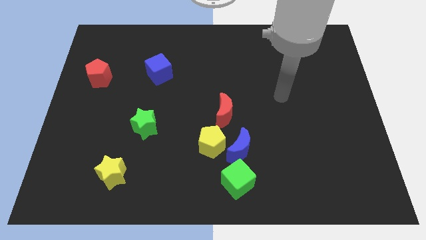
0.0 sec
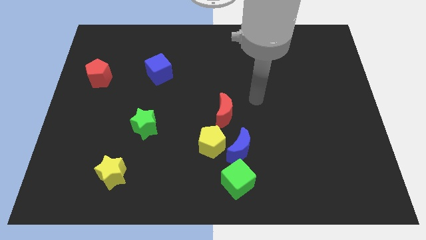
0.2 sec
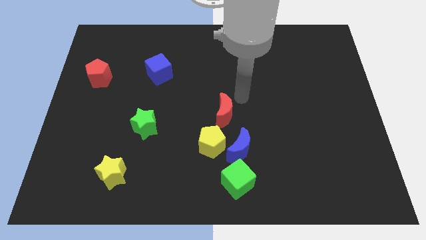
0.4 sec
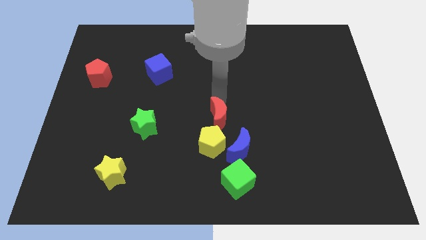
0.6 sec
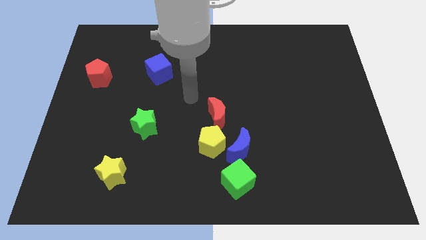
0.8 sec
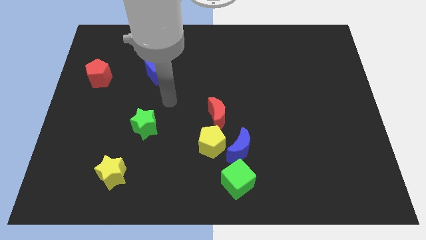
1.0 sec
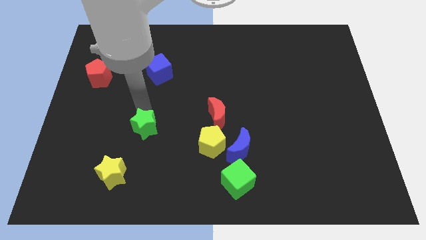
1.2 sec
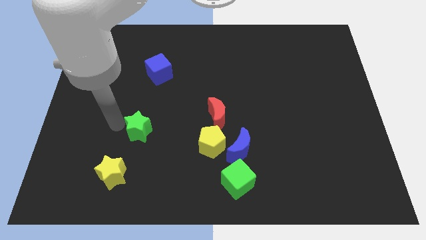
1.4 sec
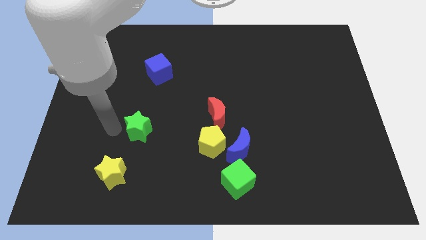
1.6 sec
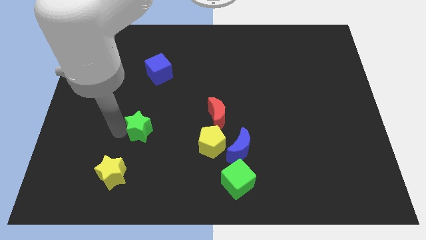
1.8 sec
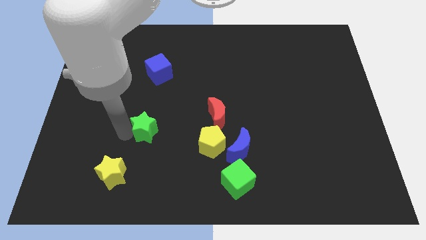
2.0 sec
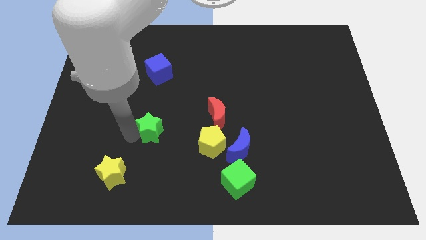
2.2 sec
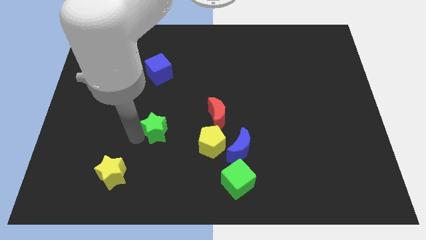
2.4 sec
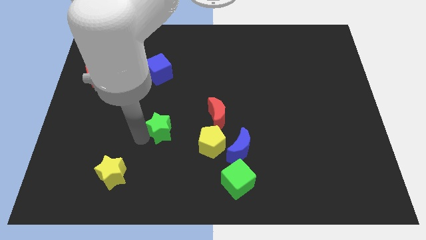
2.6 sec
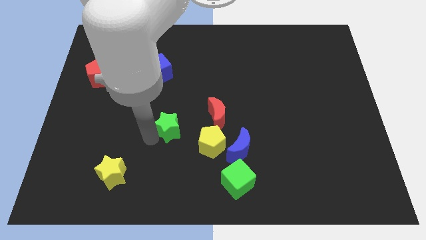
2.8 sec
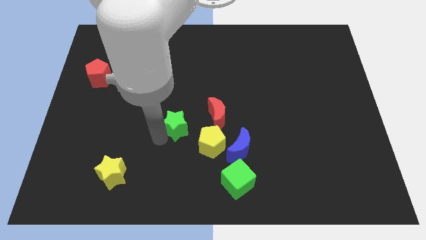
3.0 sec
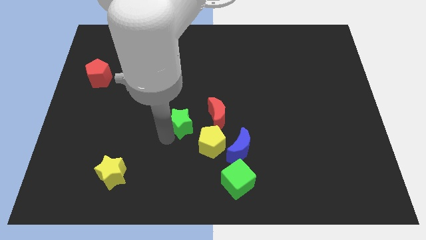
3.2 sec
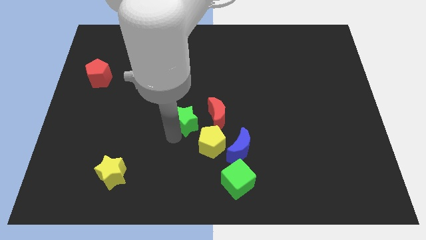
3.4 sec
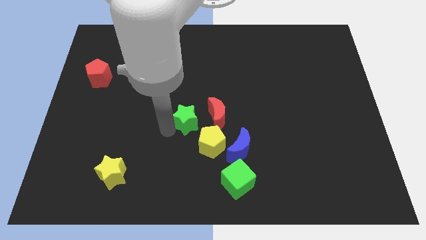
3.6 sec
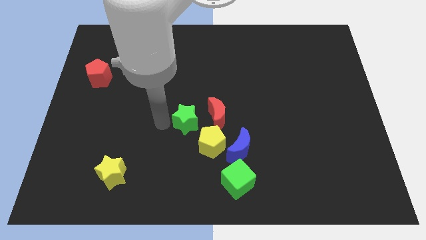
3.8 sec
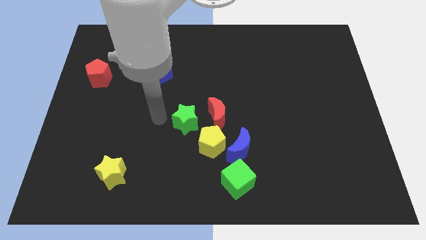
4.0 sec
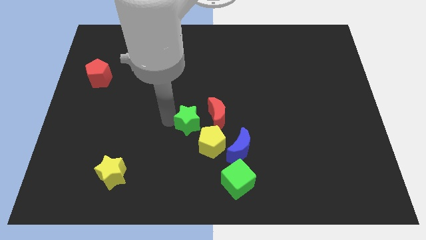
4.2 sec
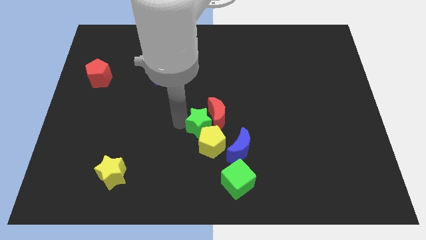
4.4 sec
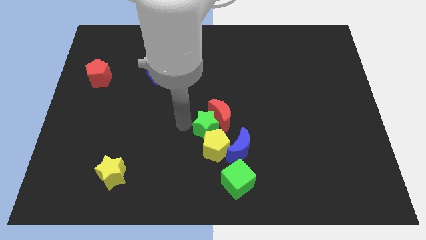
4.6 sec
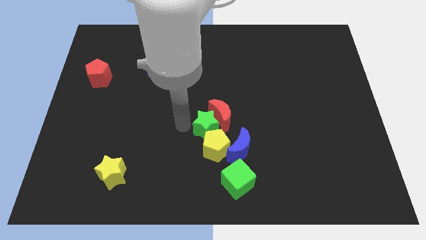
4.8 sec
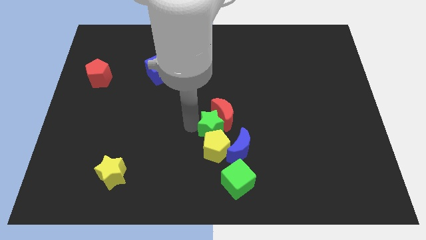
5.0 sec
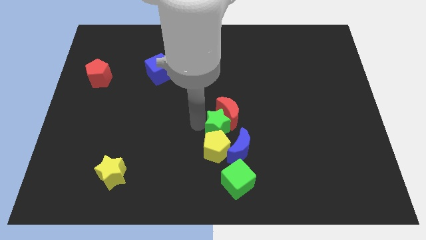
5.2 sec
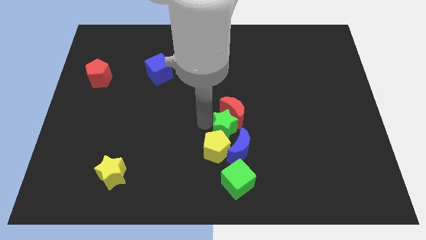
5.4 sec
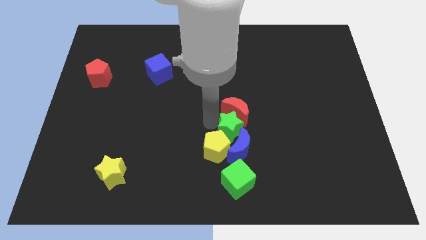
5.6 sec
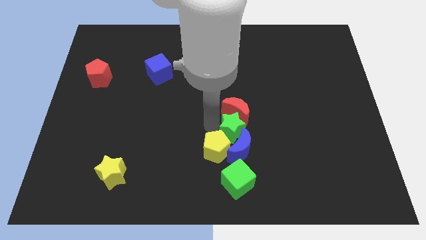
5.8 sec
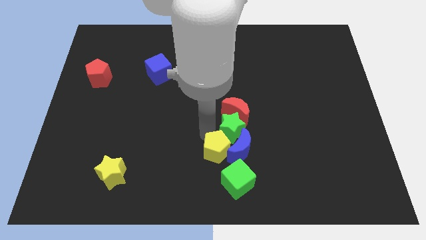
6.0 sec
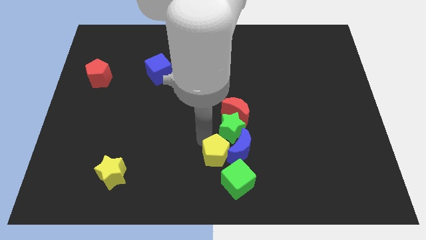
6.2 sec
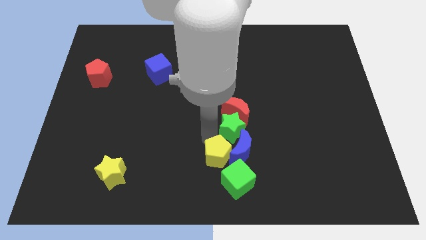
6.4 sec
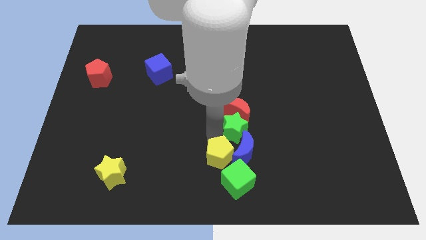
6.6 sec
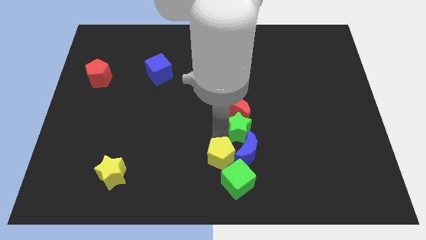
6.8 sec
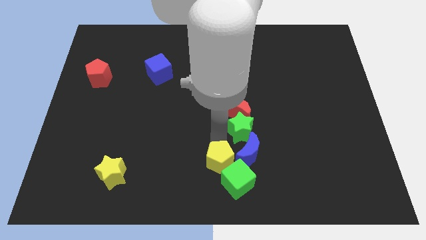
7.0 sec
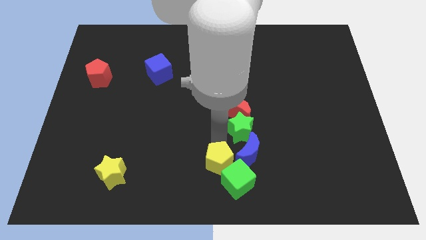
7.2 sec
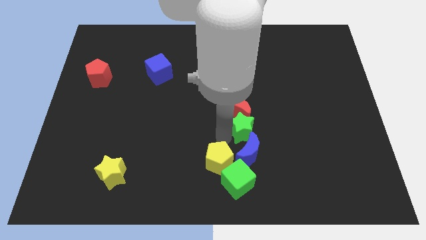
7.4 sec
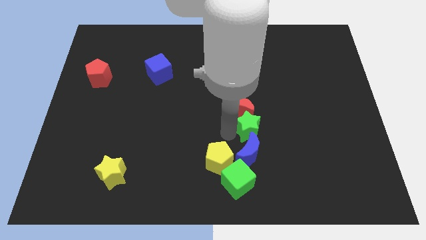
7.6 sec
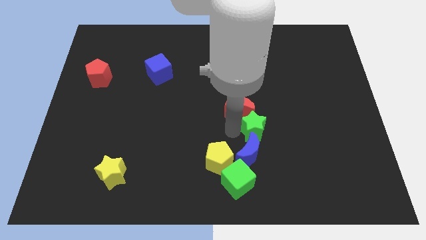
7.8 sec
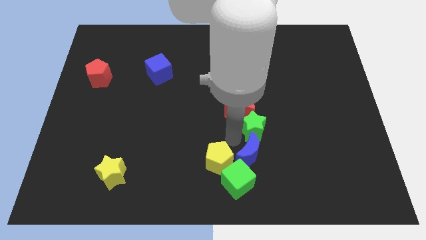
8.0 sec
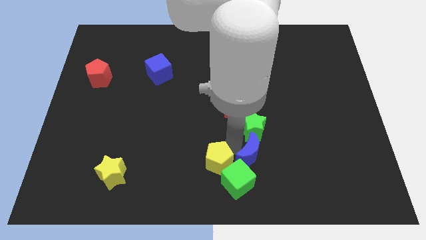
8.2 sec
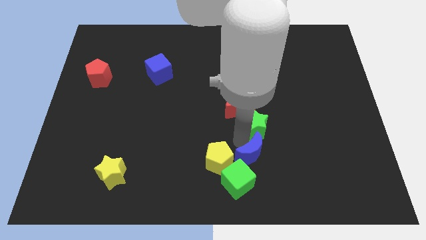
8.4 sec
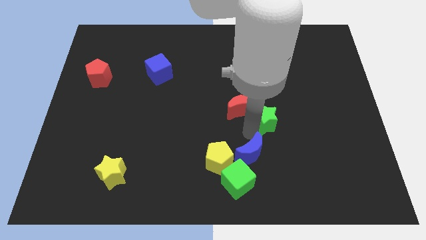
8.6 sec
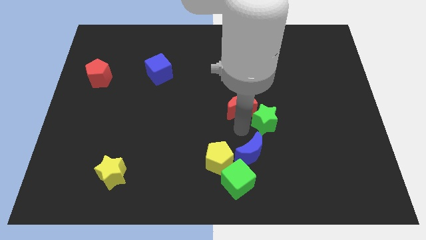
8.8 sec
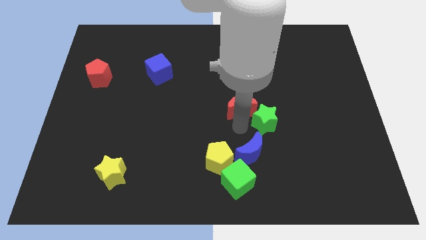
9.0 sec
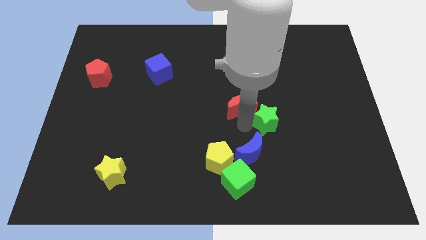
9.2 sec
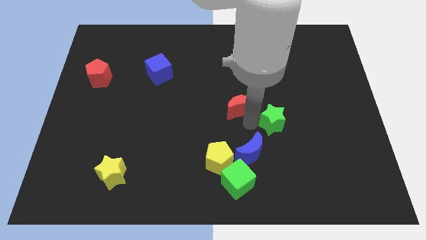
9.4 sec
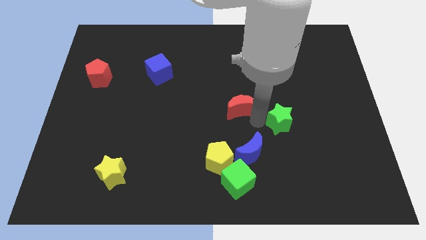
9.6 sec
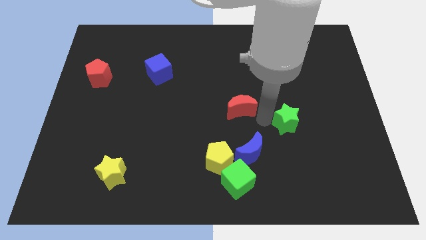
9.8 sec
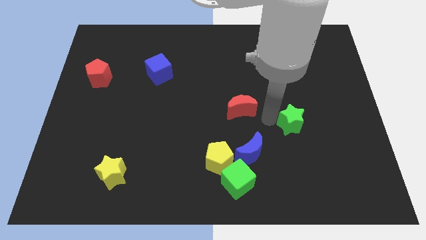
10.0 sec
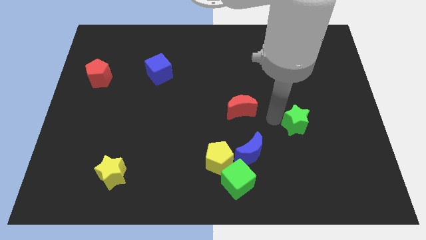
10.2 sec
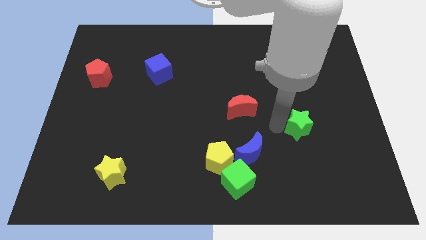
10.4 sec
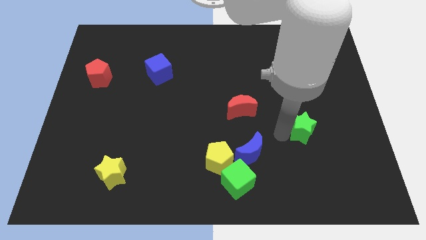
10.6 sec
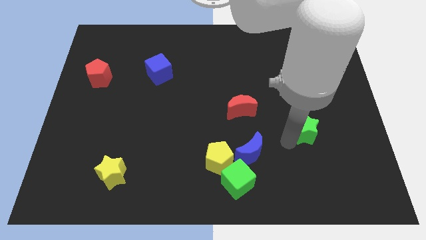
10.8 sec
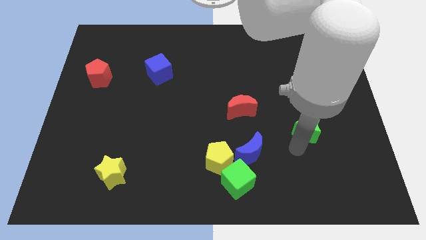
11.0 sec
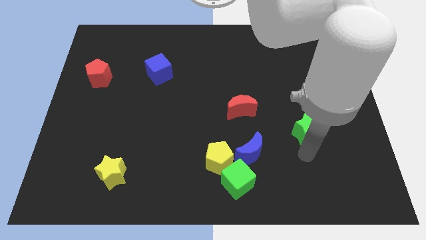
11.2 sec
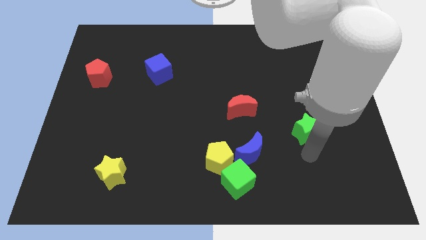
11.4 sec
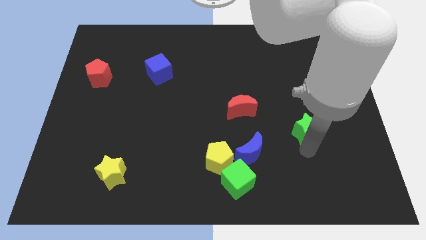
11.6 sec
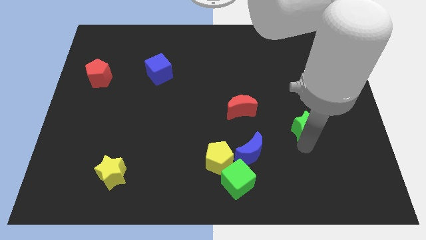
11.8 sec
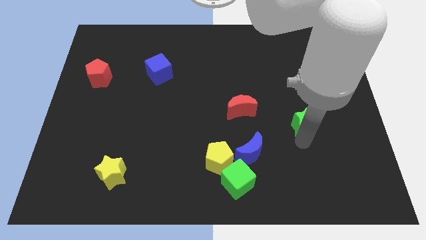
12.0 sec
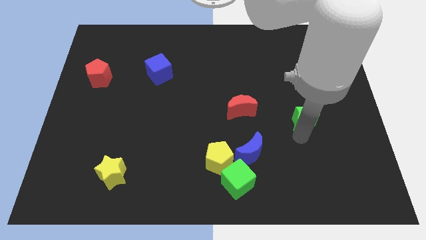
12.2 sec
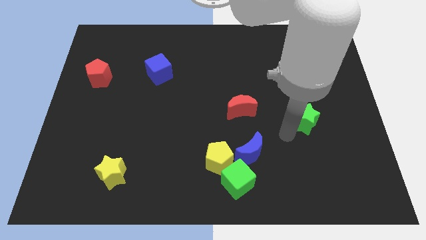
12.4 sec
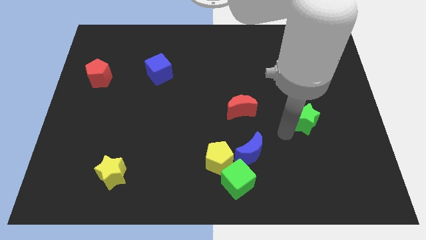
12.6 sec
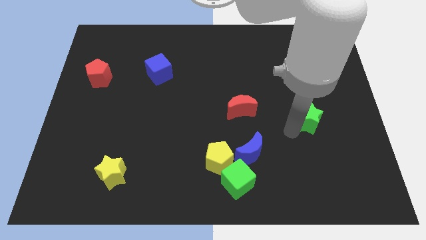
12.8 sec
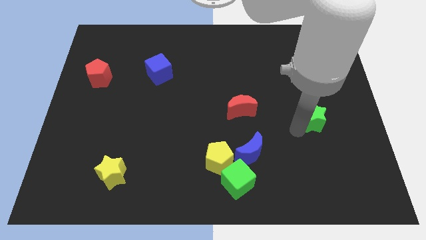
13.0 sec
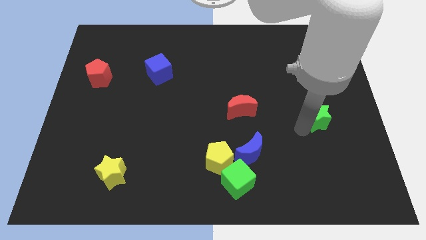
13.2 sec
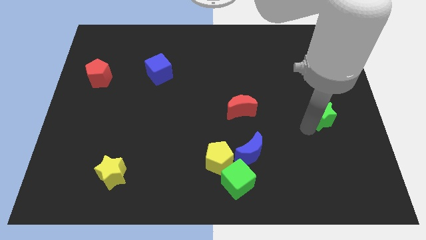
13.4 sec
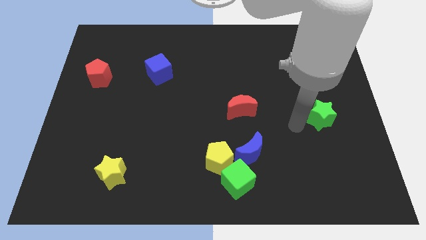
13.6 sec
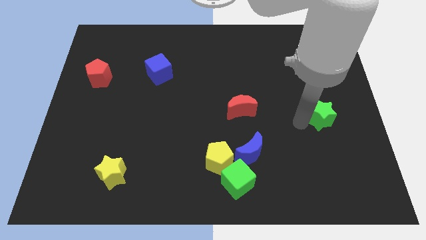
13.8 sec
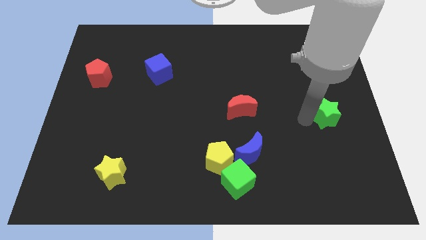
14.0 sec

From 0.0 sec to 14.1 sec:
put the green star to the right side
